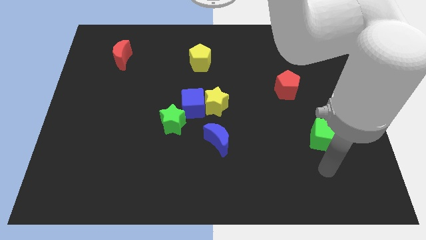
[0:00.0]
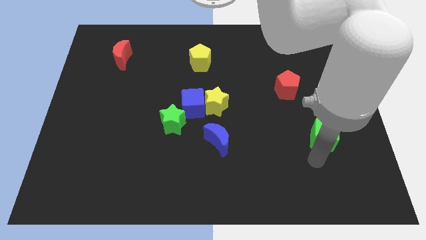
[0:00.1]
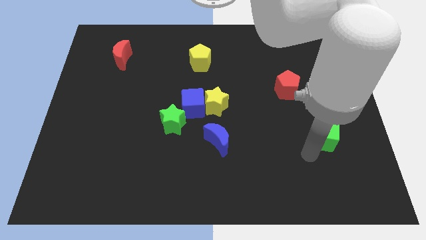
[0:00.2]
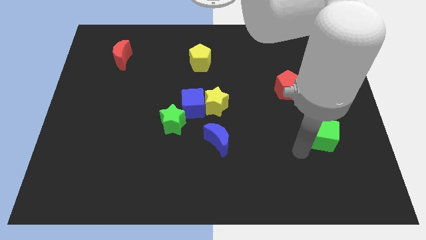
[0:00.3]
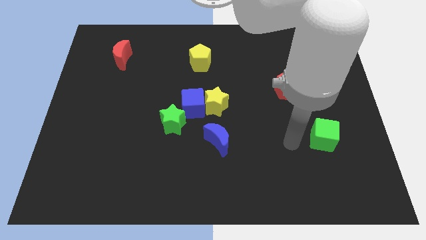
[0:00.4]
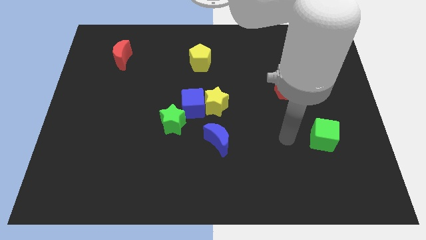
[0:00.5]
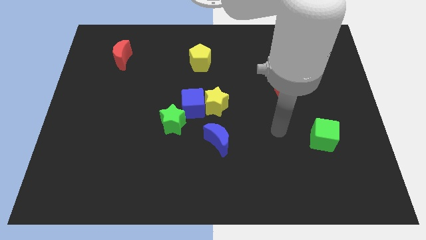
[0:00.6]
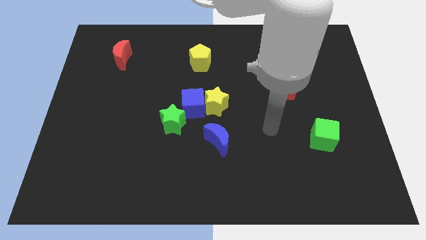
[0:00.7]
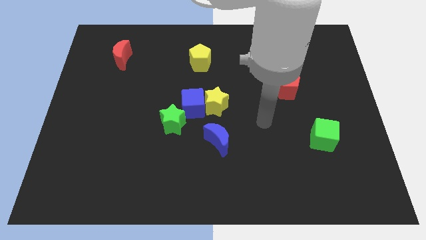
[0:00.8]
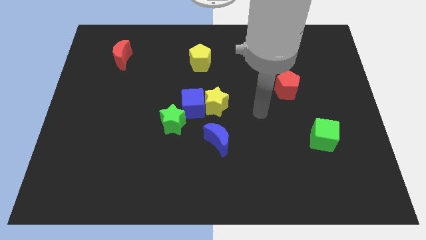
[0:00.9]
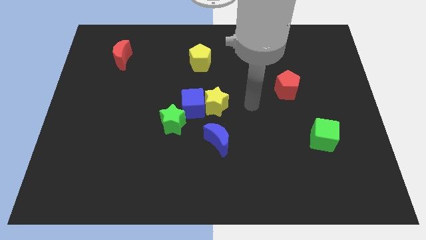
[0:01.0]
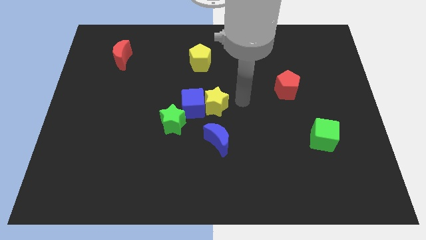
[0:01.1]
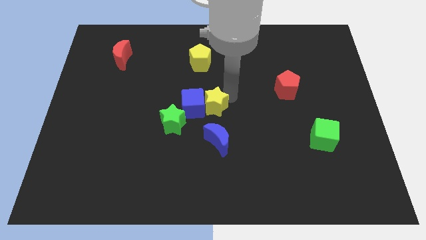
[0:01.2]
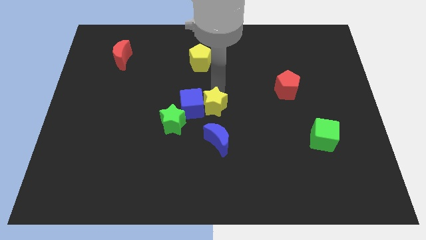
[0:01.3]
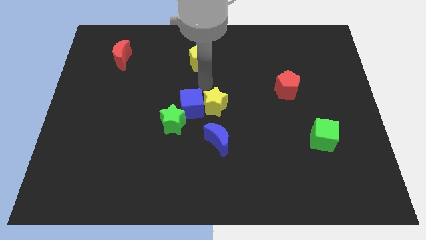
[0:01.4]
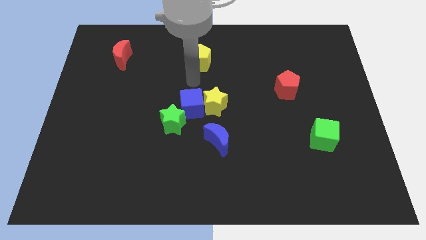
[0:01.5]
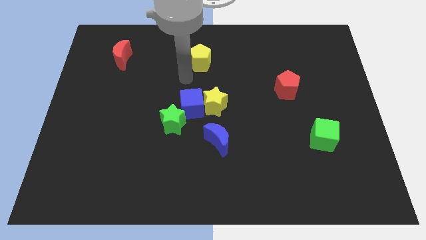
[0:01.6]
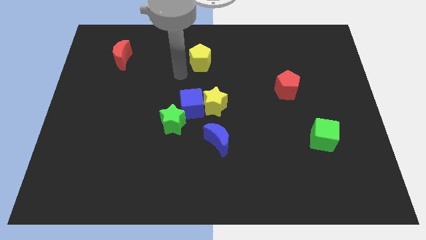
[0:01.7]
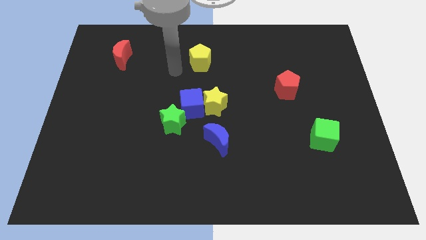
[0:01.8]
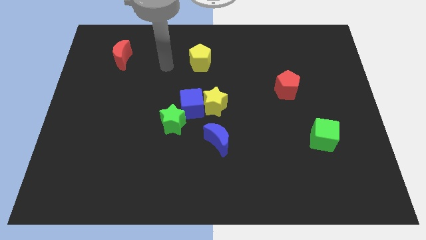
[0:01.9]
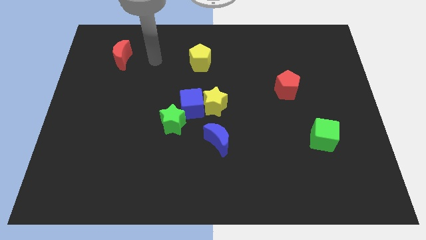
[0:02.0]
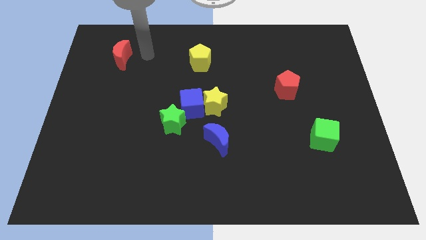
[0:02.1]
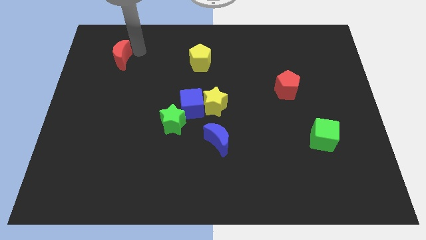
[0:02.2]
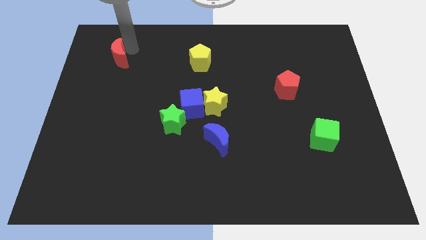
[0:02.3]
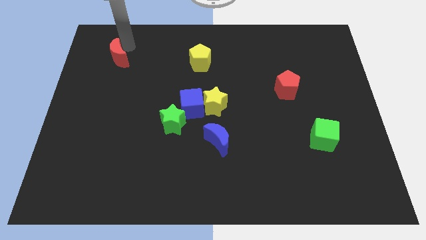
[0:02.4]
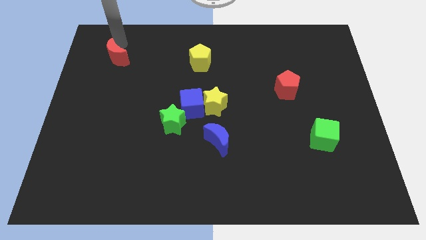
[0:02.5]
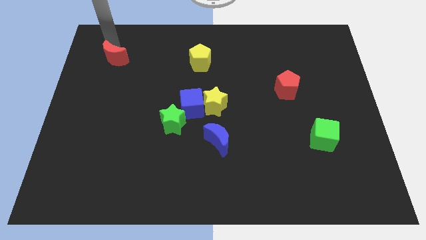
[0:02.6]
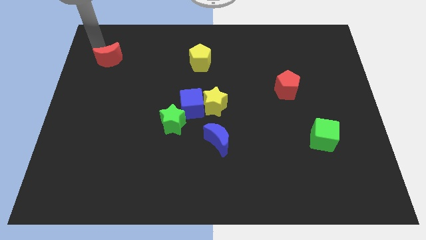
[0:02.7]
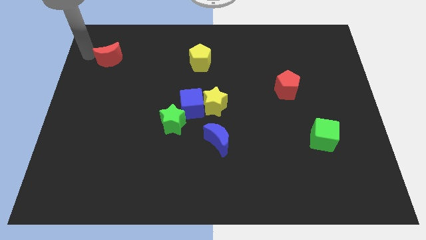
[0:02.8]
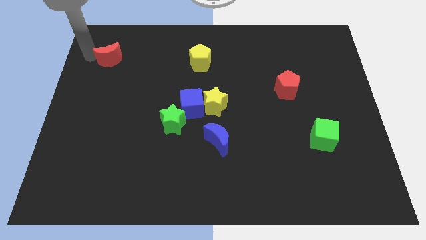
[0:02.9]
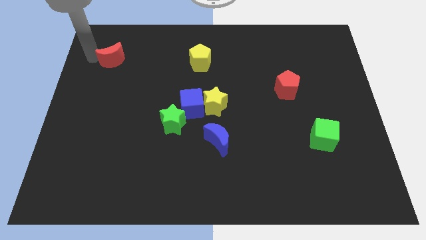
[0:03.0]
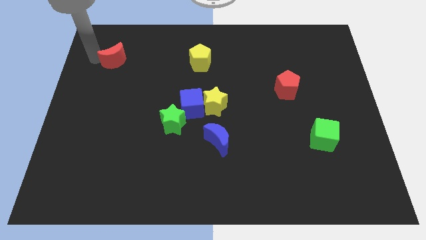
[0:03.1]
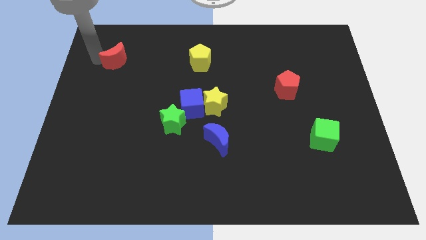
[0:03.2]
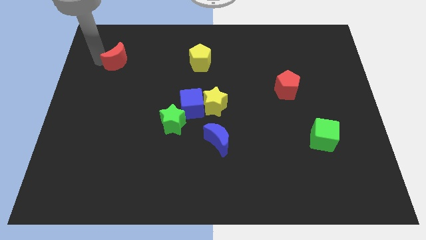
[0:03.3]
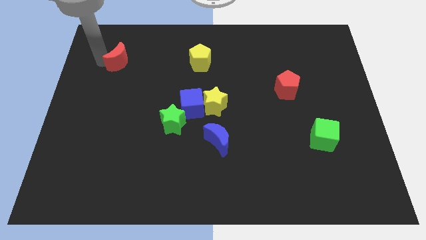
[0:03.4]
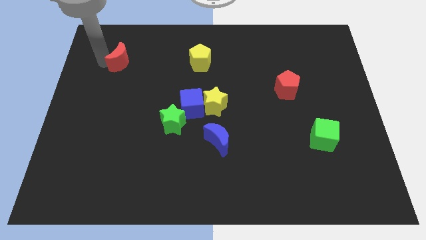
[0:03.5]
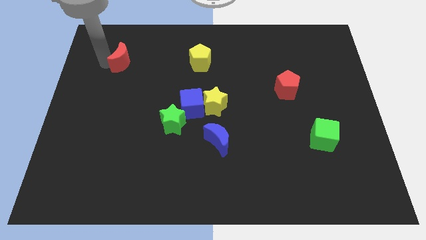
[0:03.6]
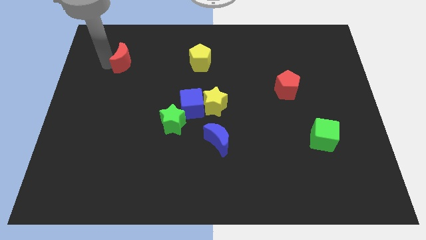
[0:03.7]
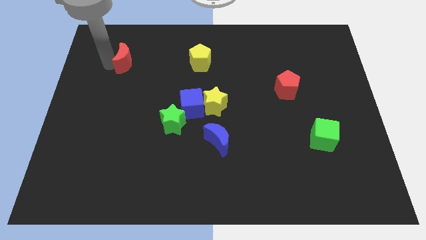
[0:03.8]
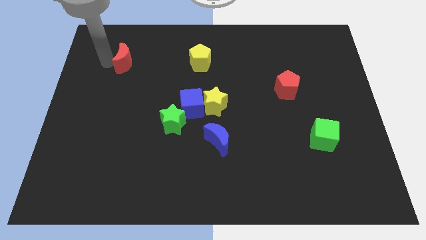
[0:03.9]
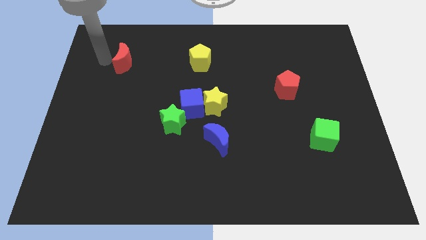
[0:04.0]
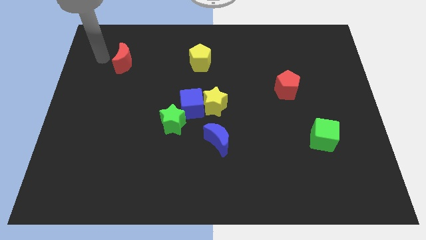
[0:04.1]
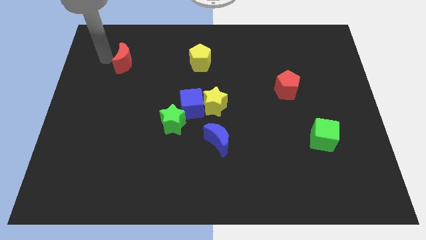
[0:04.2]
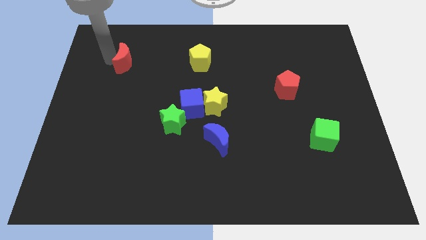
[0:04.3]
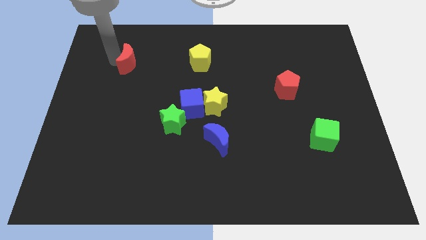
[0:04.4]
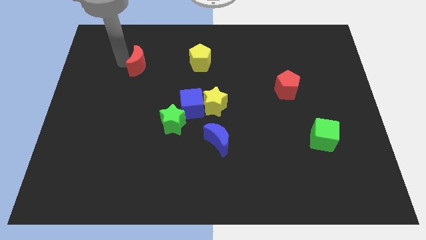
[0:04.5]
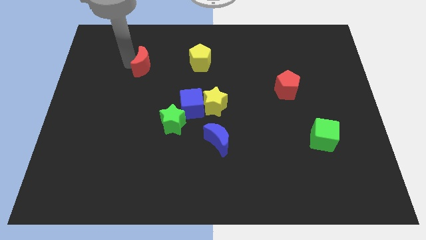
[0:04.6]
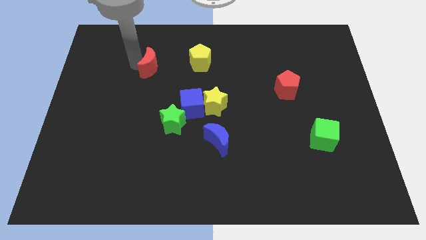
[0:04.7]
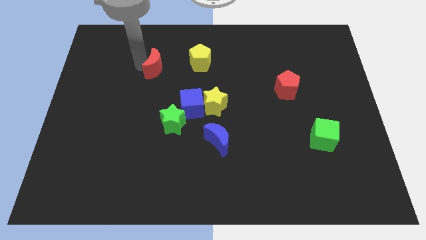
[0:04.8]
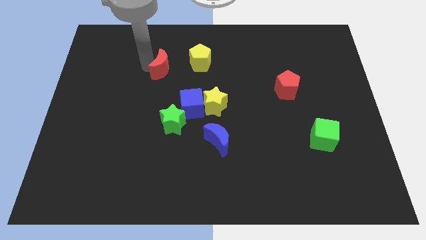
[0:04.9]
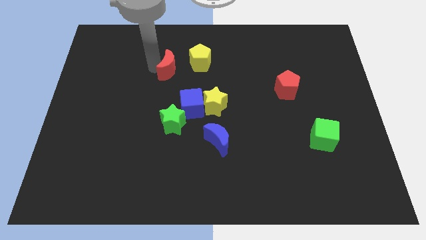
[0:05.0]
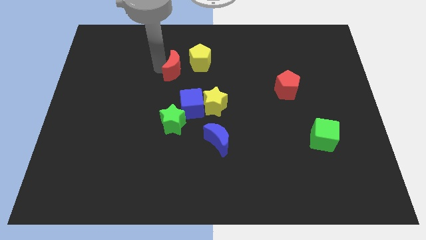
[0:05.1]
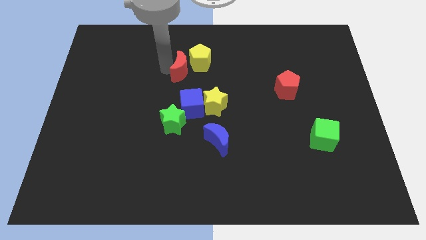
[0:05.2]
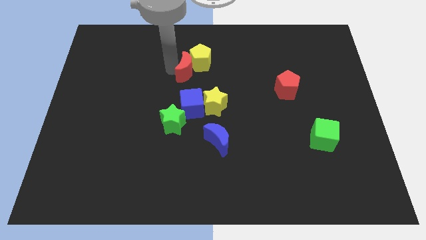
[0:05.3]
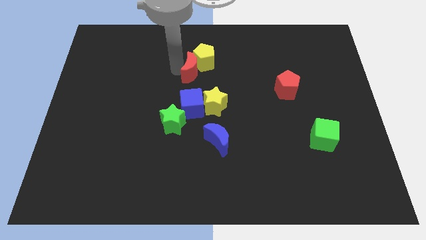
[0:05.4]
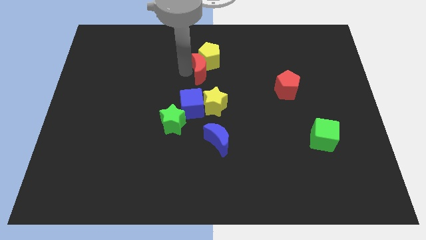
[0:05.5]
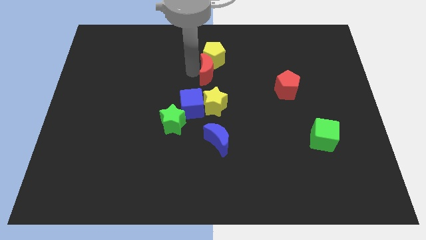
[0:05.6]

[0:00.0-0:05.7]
put the red moon to the bottom right of the yellow pentagon

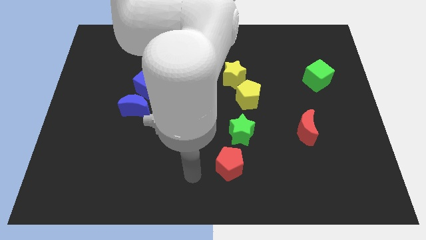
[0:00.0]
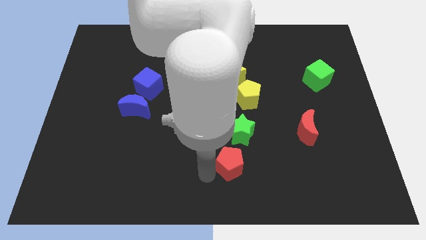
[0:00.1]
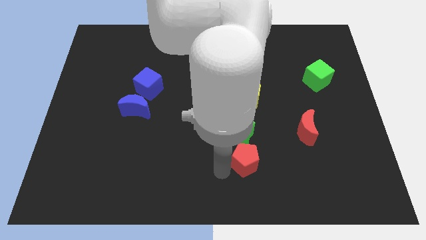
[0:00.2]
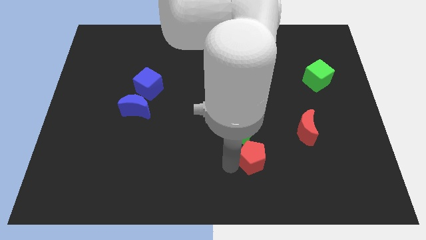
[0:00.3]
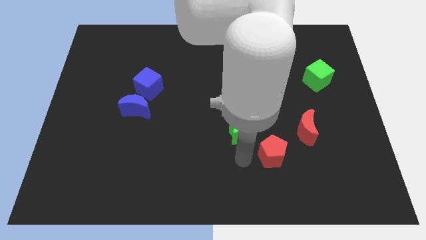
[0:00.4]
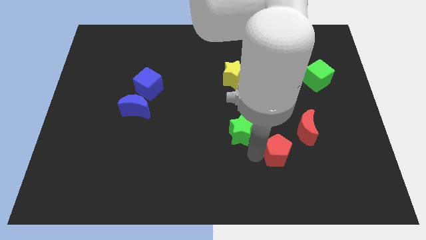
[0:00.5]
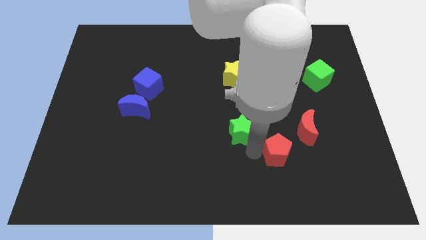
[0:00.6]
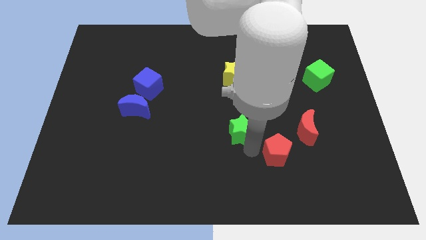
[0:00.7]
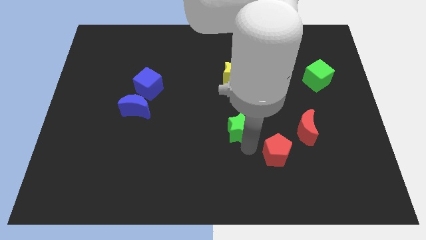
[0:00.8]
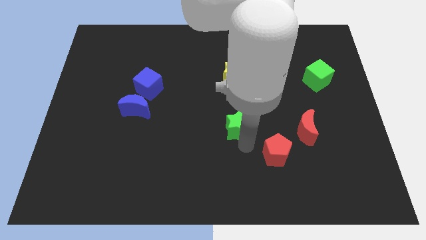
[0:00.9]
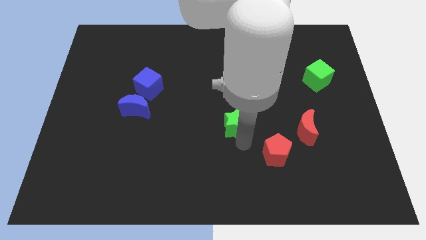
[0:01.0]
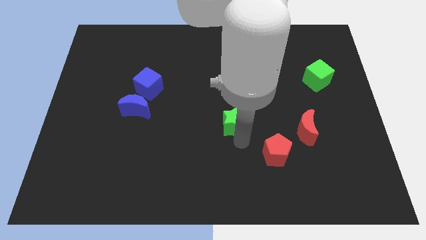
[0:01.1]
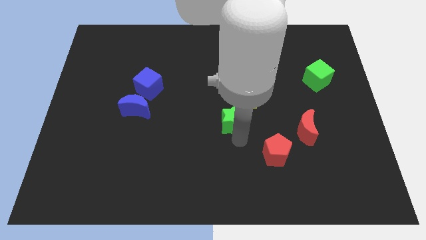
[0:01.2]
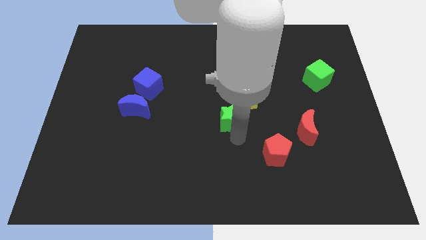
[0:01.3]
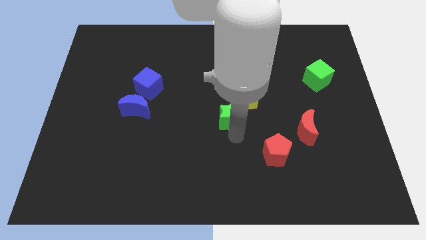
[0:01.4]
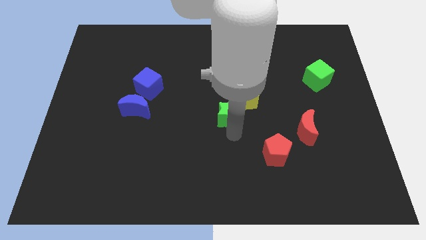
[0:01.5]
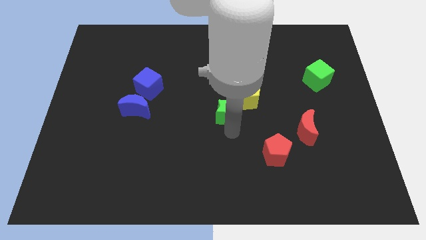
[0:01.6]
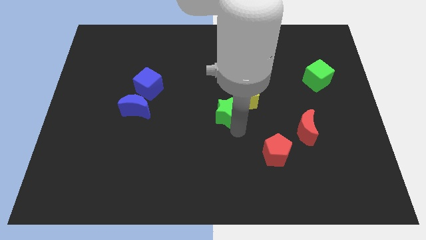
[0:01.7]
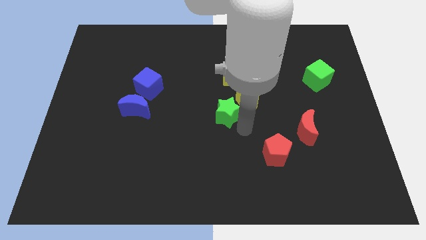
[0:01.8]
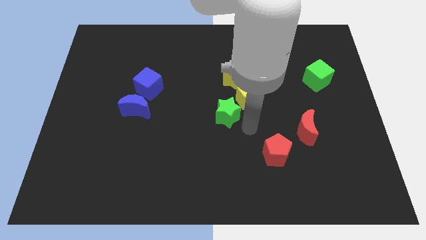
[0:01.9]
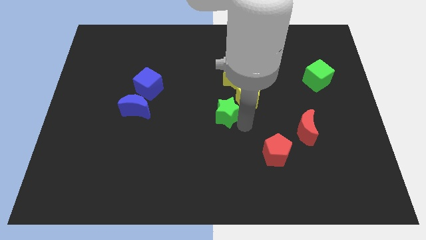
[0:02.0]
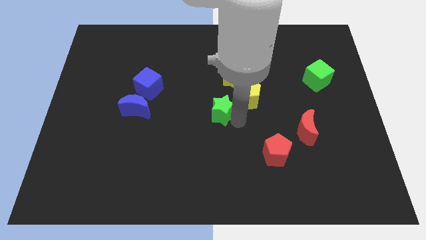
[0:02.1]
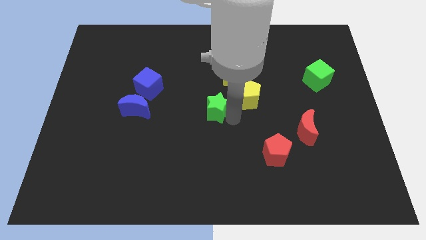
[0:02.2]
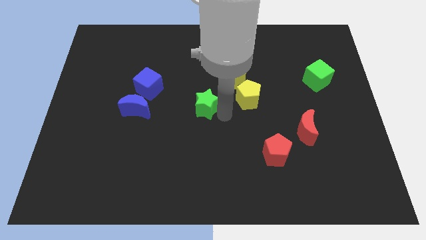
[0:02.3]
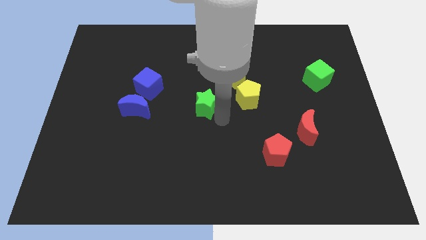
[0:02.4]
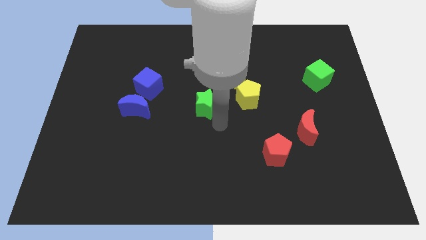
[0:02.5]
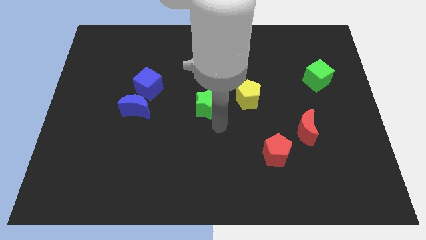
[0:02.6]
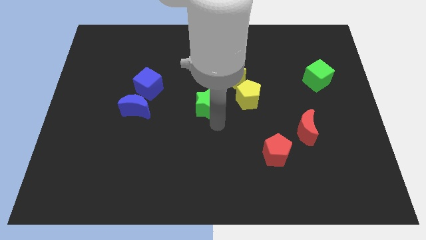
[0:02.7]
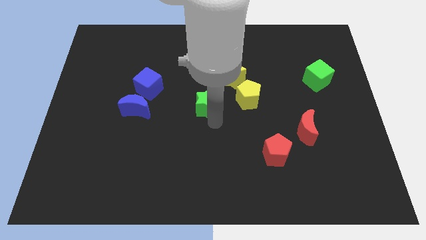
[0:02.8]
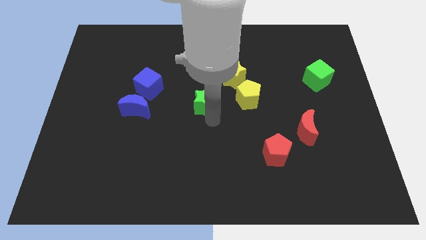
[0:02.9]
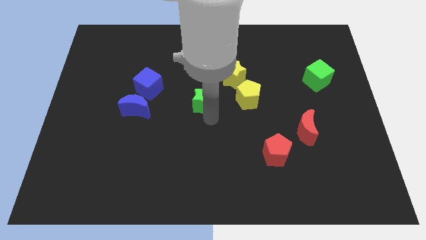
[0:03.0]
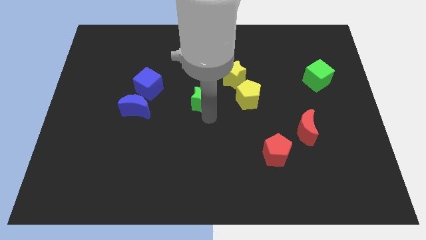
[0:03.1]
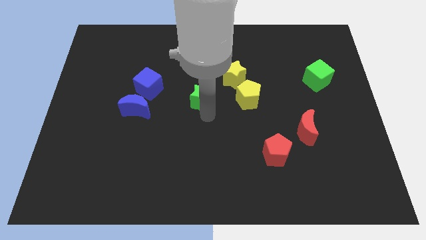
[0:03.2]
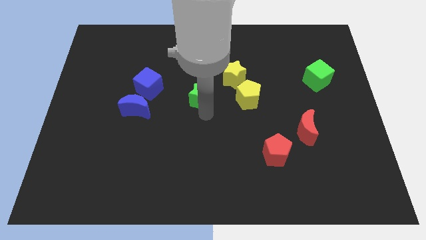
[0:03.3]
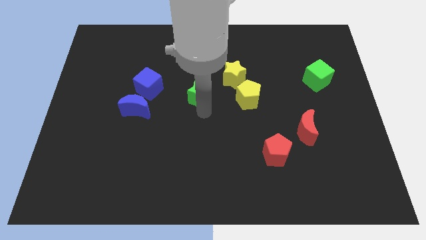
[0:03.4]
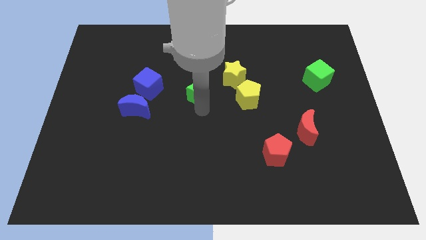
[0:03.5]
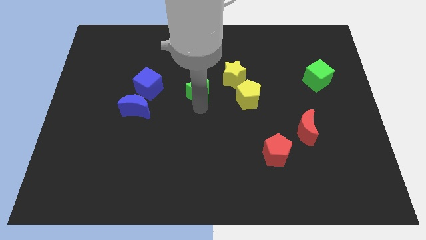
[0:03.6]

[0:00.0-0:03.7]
push the green star just left of the yellow star
